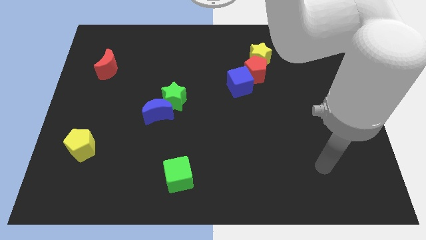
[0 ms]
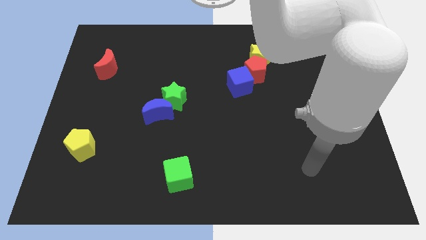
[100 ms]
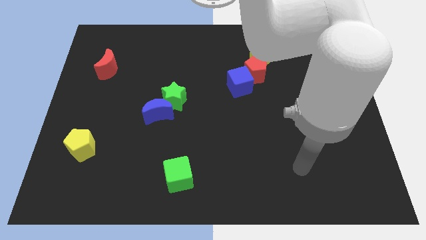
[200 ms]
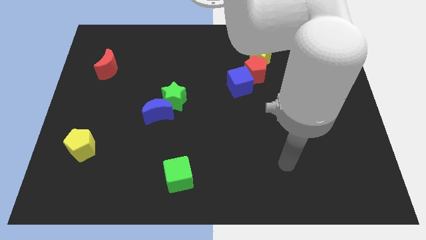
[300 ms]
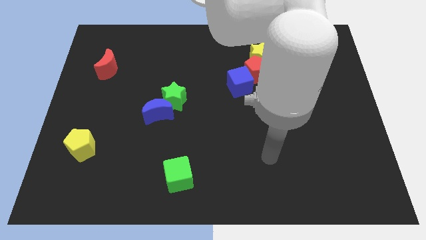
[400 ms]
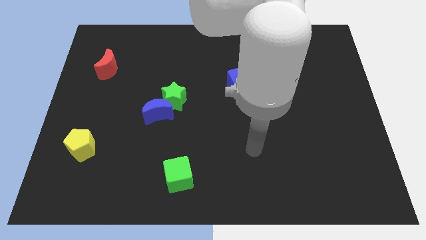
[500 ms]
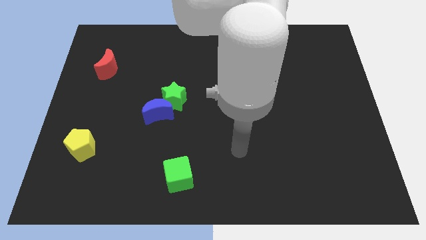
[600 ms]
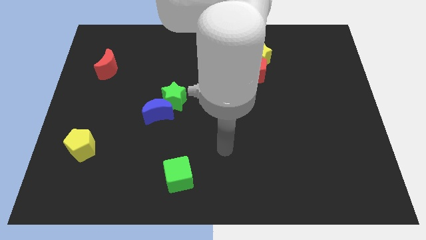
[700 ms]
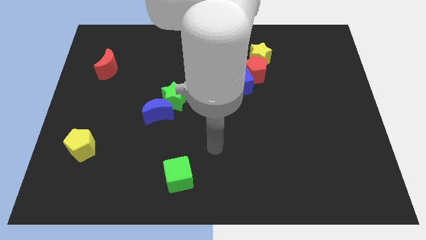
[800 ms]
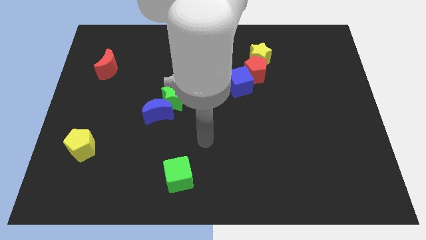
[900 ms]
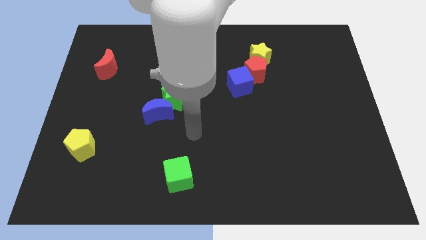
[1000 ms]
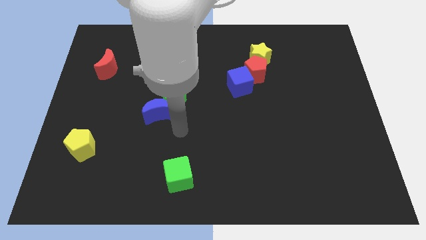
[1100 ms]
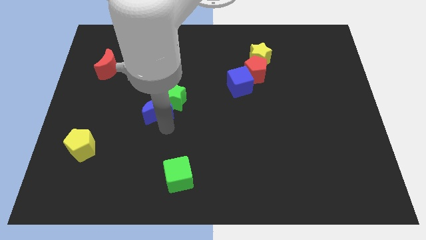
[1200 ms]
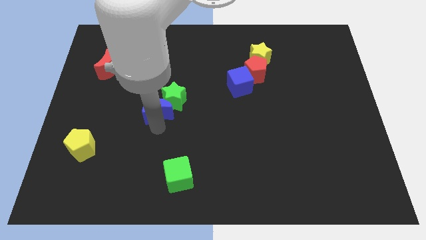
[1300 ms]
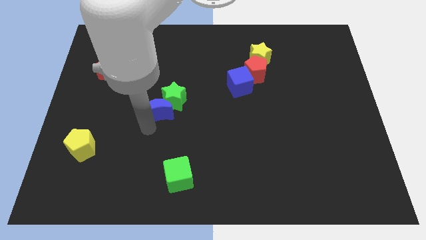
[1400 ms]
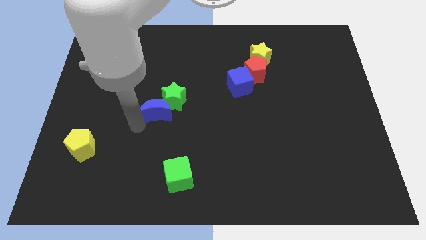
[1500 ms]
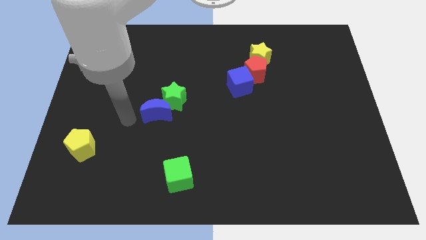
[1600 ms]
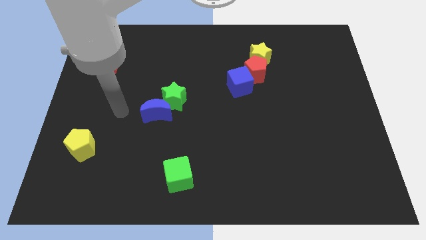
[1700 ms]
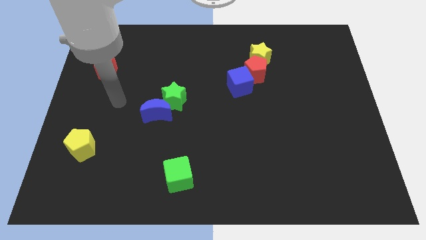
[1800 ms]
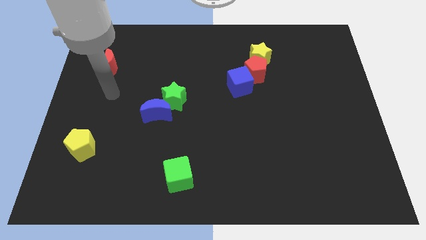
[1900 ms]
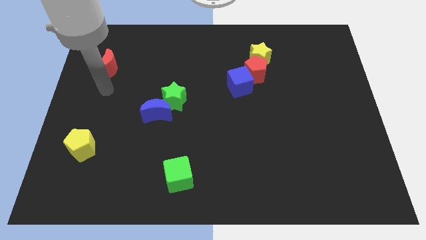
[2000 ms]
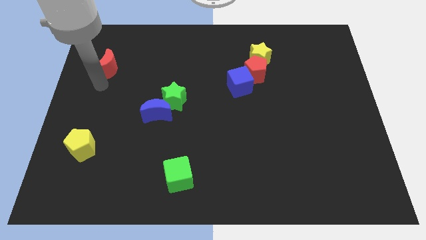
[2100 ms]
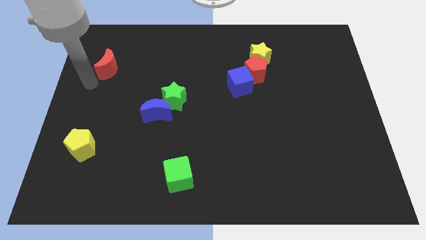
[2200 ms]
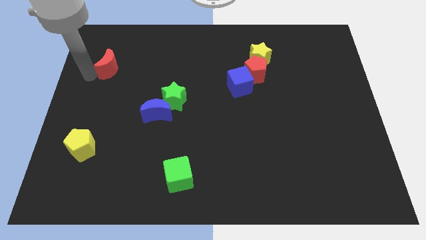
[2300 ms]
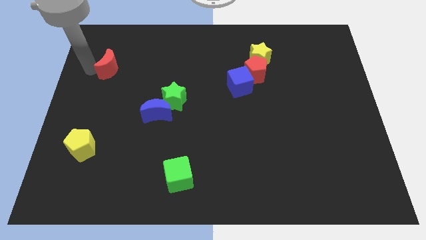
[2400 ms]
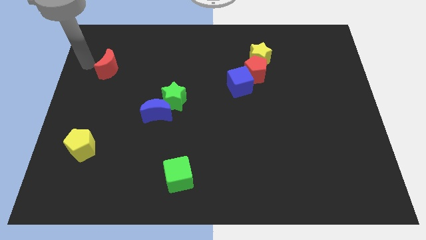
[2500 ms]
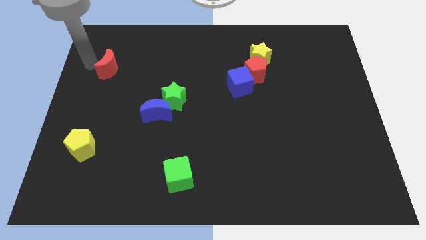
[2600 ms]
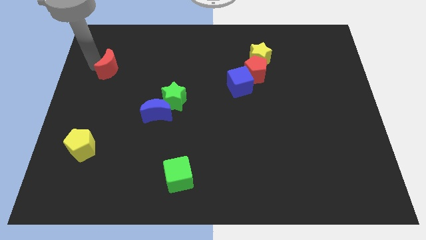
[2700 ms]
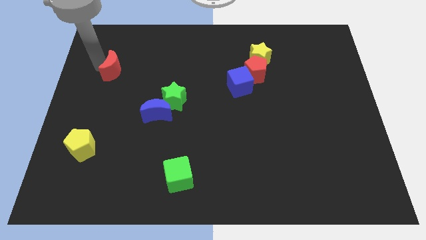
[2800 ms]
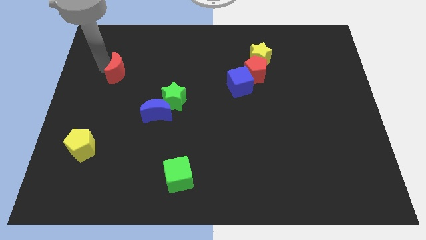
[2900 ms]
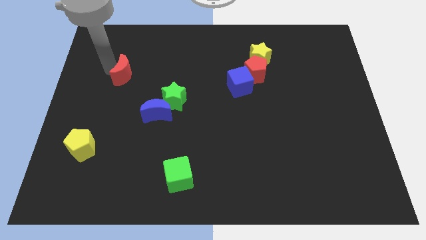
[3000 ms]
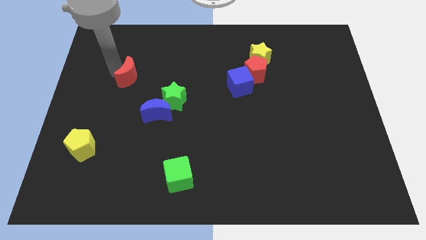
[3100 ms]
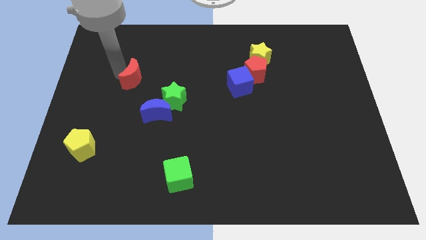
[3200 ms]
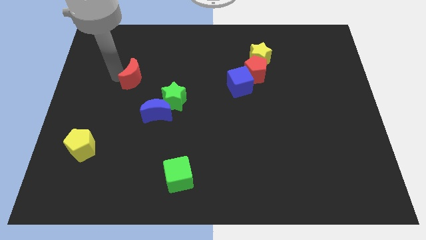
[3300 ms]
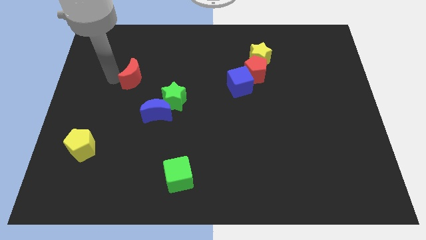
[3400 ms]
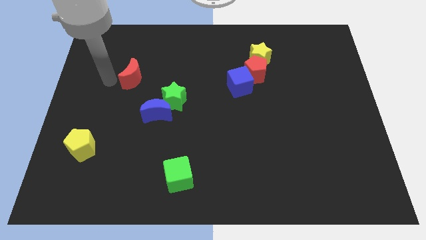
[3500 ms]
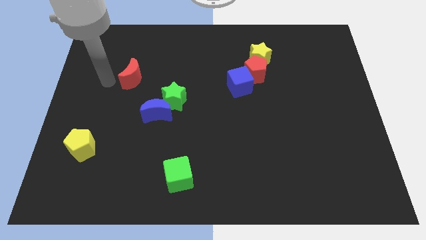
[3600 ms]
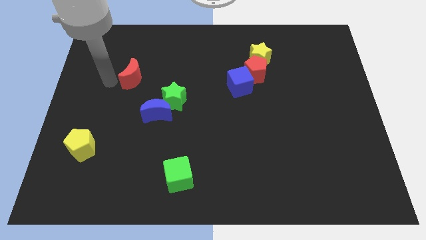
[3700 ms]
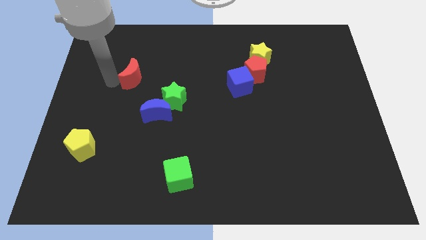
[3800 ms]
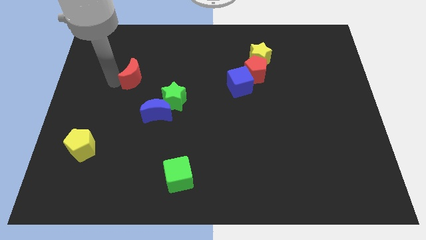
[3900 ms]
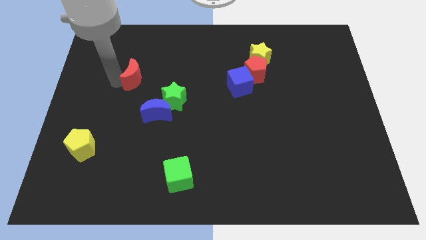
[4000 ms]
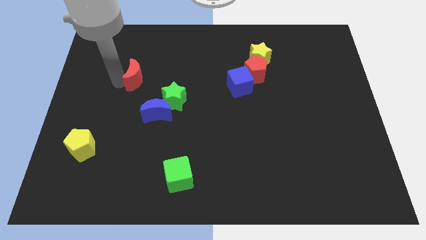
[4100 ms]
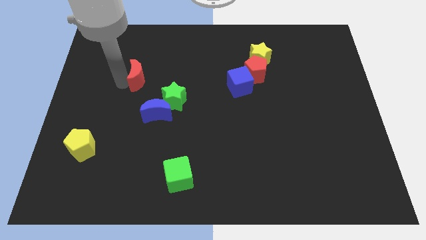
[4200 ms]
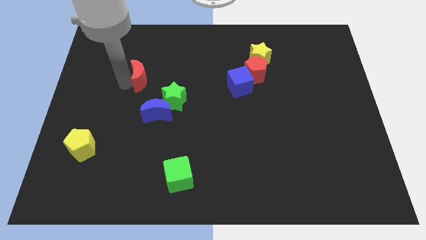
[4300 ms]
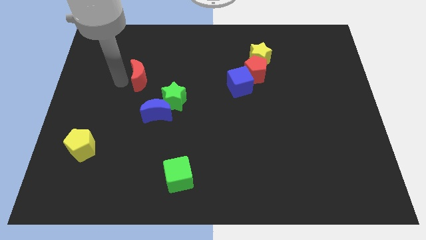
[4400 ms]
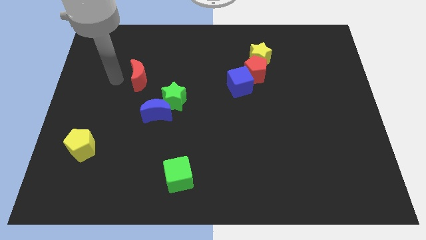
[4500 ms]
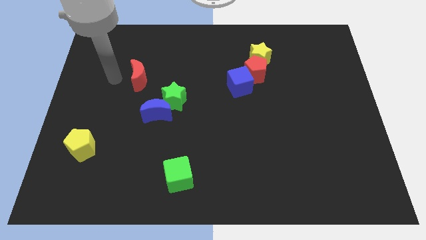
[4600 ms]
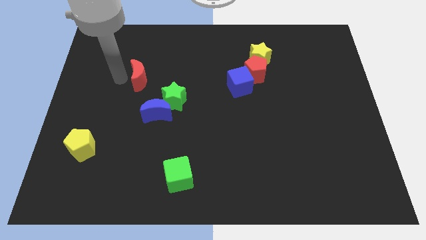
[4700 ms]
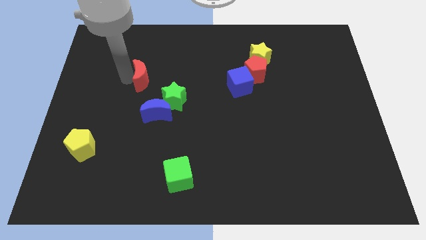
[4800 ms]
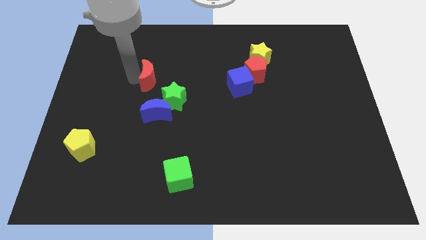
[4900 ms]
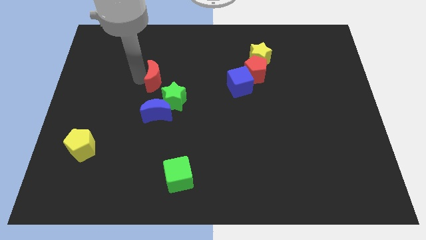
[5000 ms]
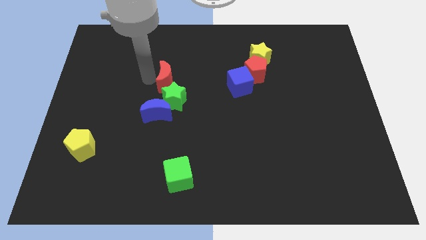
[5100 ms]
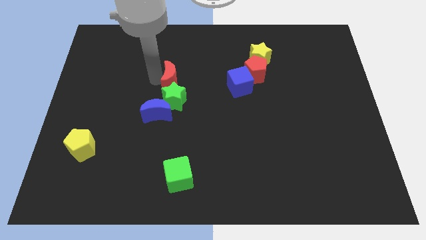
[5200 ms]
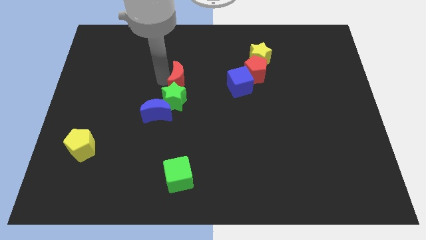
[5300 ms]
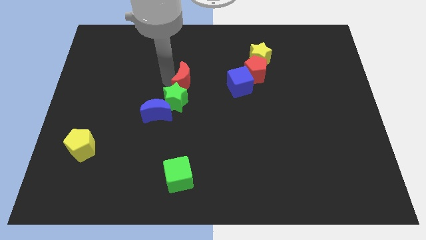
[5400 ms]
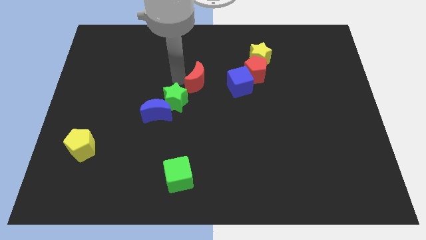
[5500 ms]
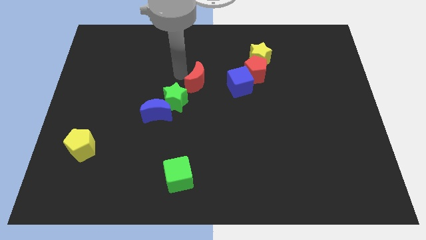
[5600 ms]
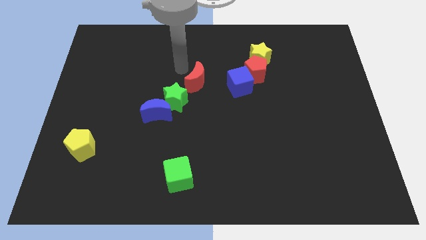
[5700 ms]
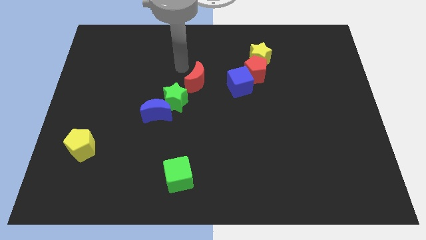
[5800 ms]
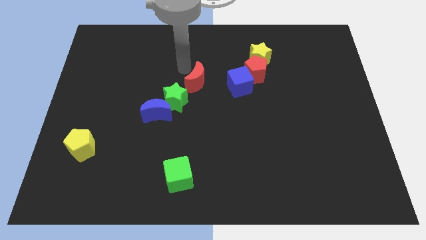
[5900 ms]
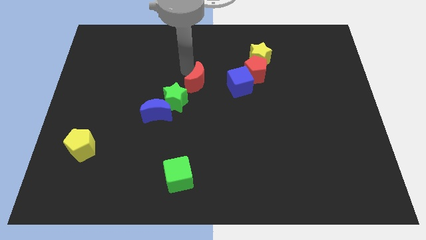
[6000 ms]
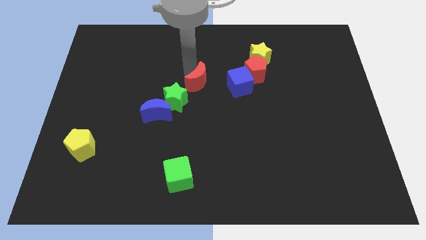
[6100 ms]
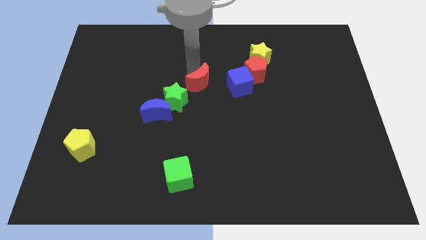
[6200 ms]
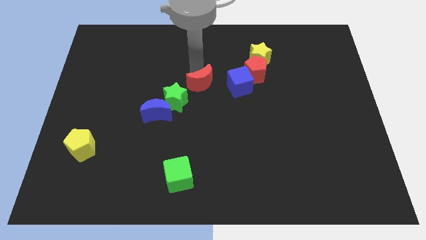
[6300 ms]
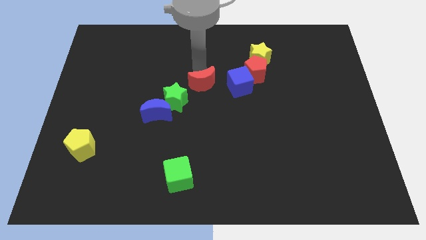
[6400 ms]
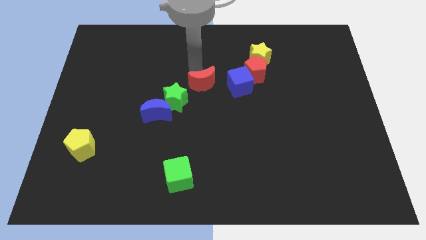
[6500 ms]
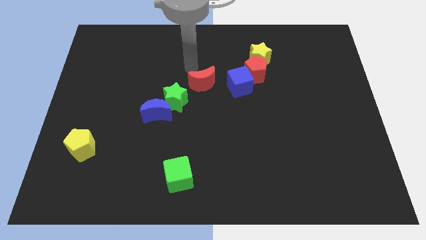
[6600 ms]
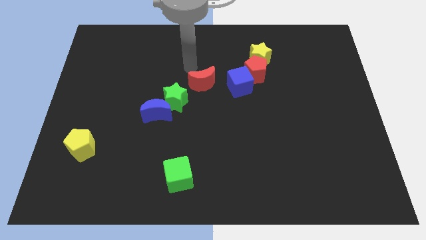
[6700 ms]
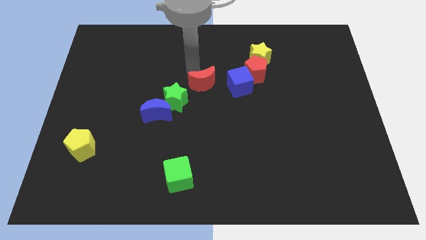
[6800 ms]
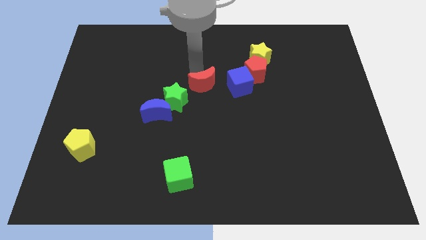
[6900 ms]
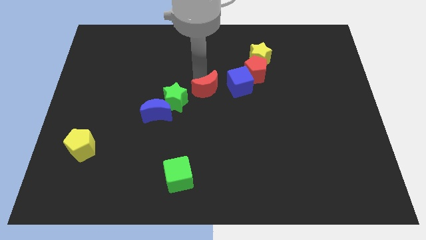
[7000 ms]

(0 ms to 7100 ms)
put the red moon just right of the green star

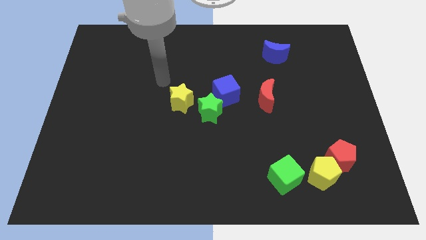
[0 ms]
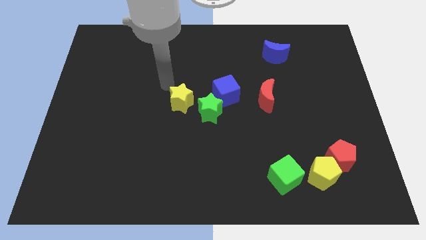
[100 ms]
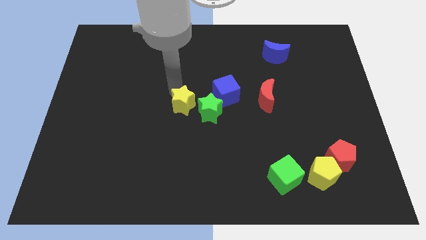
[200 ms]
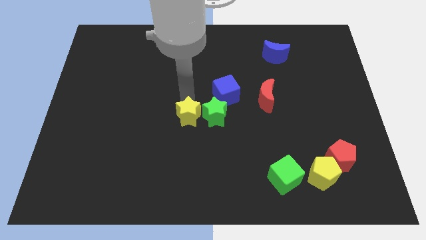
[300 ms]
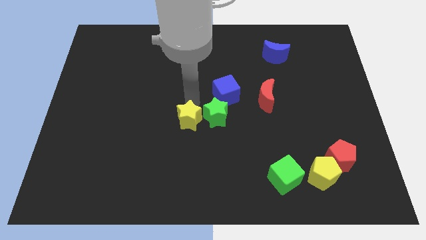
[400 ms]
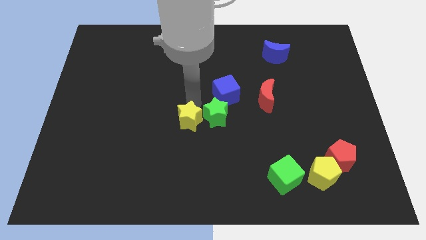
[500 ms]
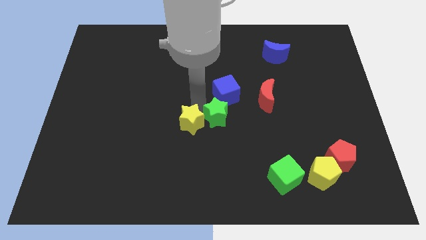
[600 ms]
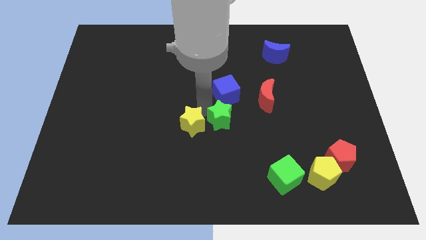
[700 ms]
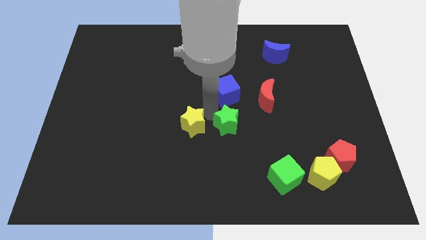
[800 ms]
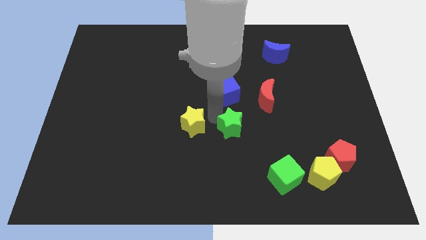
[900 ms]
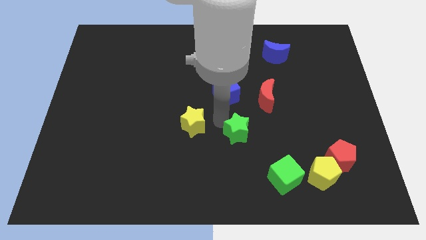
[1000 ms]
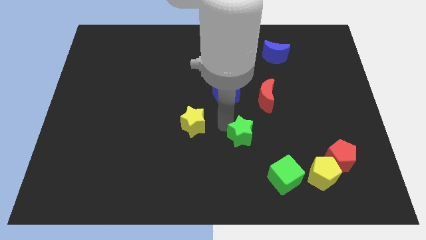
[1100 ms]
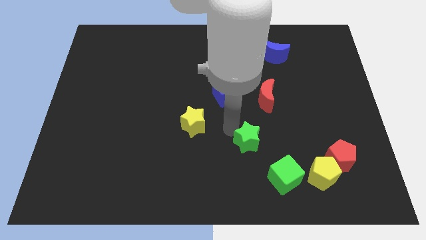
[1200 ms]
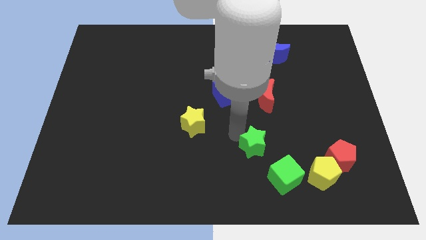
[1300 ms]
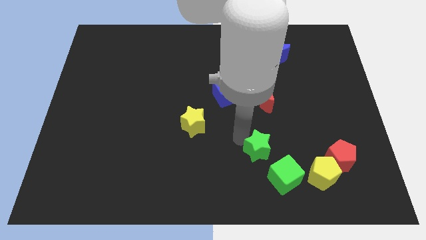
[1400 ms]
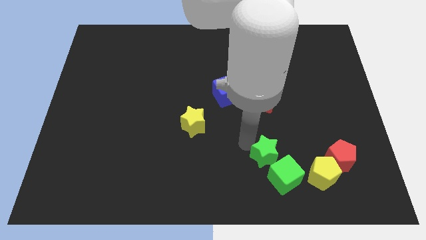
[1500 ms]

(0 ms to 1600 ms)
put the green star to the left of the red pentagon
